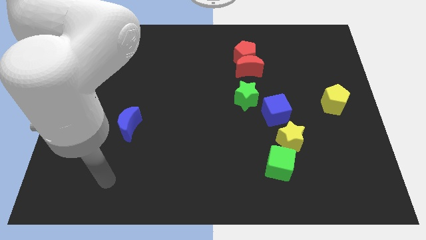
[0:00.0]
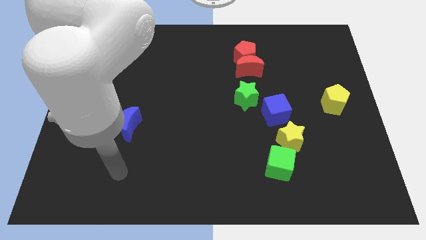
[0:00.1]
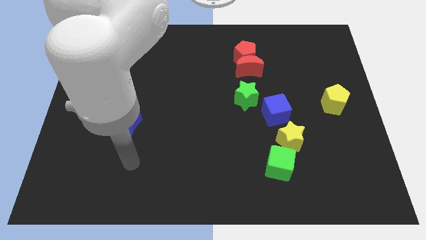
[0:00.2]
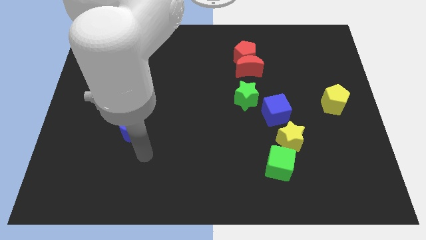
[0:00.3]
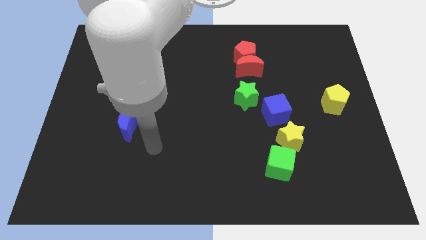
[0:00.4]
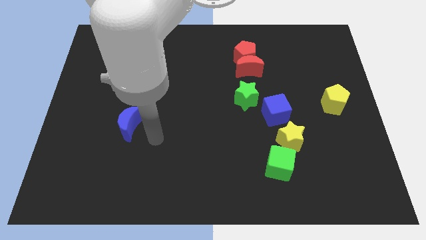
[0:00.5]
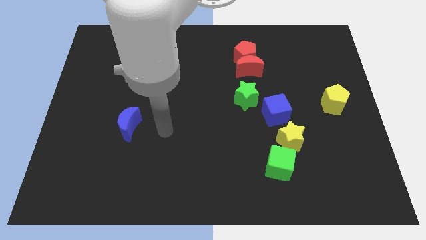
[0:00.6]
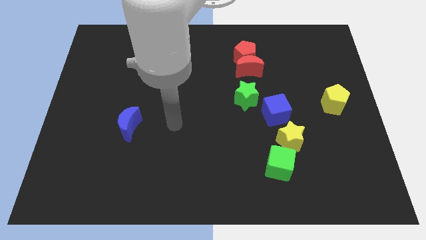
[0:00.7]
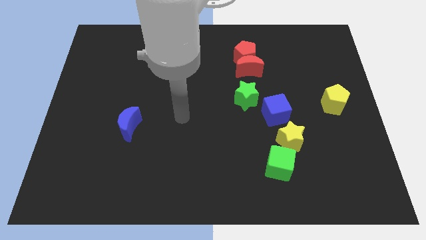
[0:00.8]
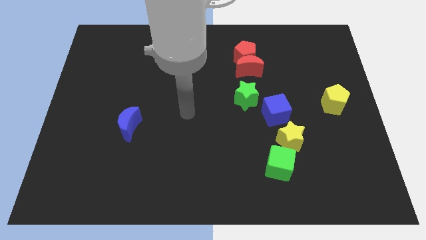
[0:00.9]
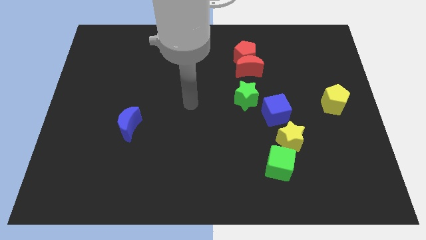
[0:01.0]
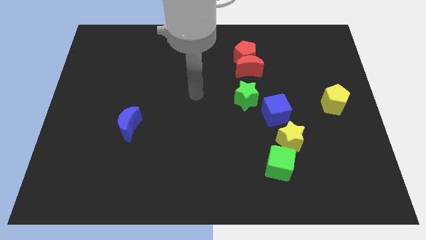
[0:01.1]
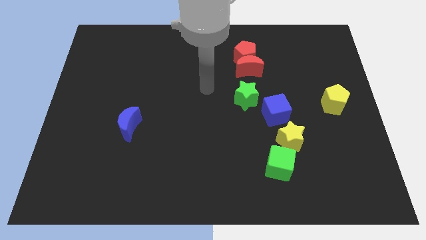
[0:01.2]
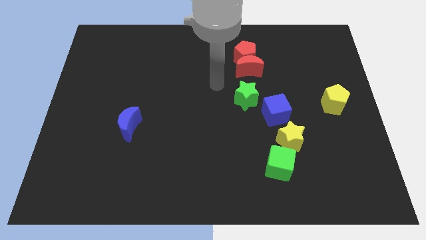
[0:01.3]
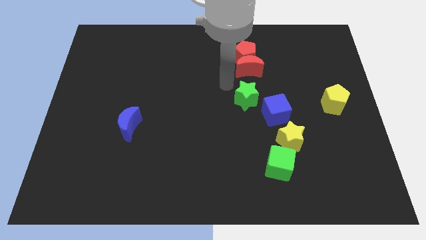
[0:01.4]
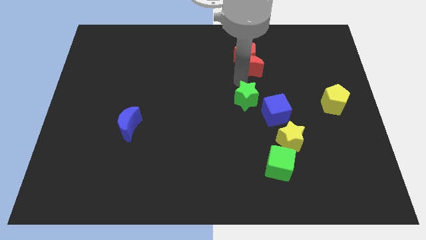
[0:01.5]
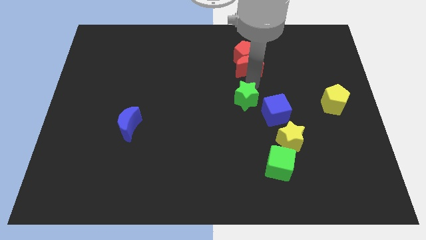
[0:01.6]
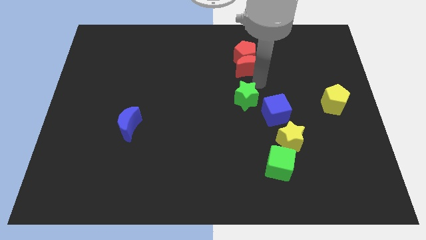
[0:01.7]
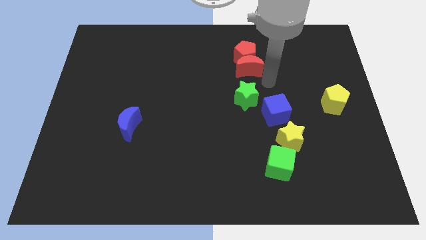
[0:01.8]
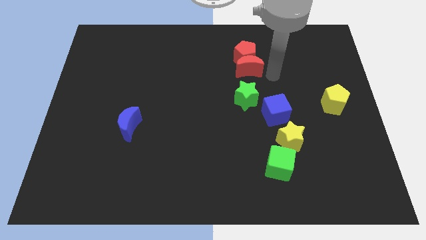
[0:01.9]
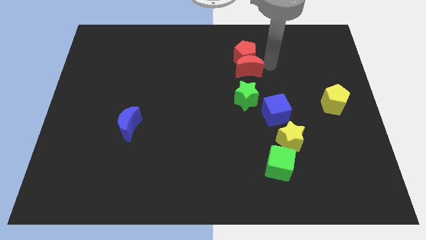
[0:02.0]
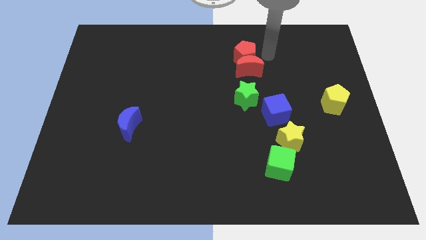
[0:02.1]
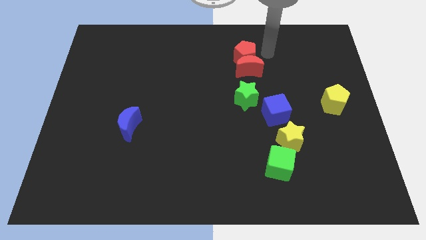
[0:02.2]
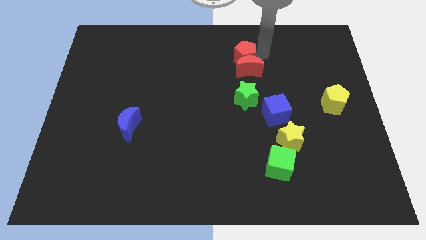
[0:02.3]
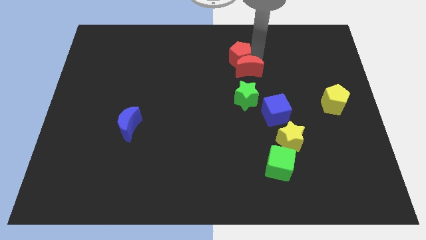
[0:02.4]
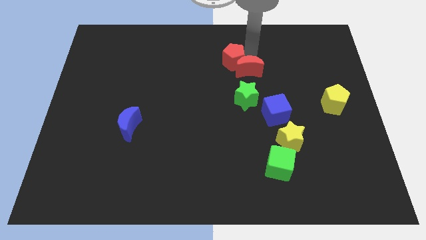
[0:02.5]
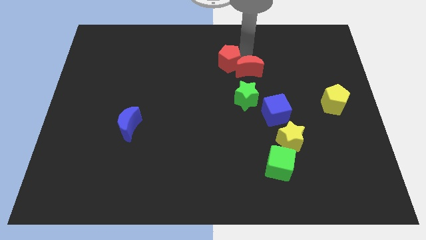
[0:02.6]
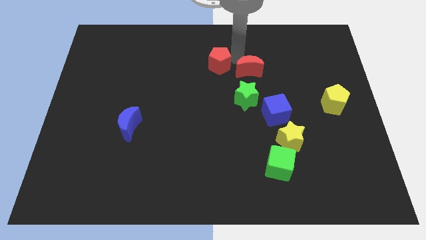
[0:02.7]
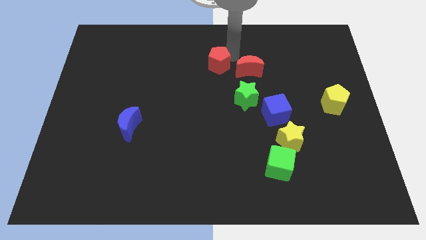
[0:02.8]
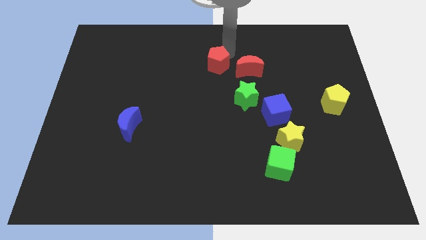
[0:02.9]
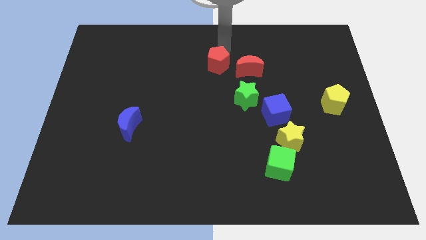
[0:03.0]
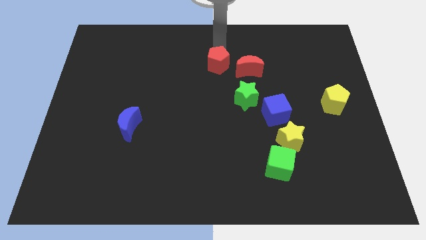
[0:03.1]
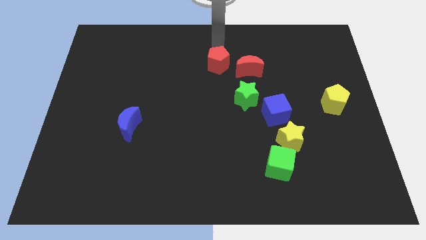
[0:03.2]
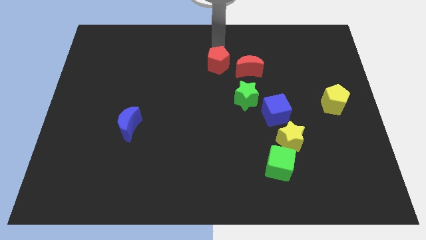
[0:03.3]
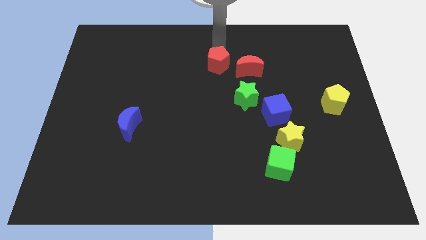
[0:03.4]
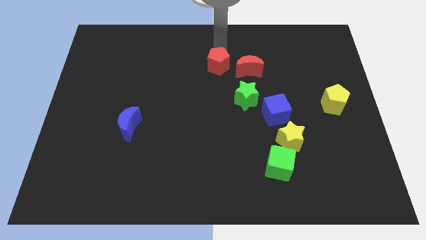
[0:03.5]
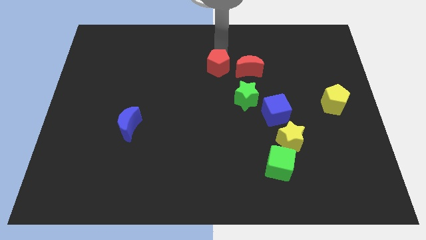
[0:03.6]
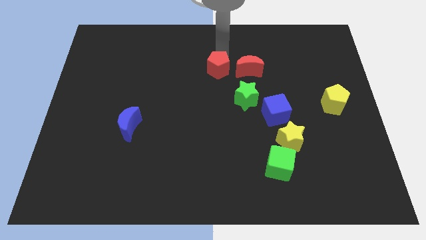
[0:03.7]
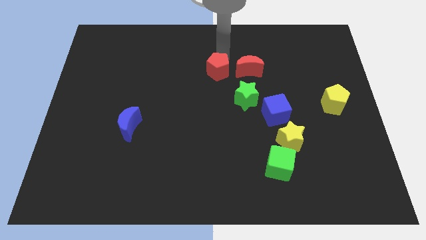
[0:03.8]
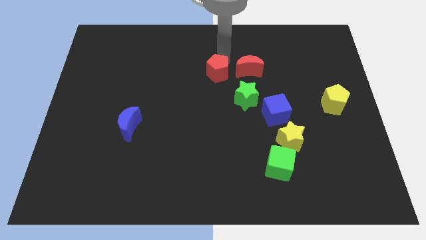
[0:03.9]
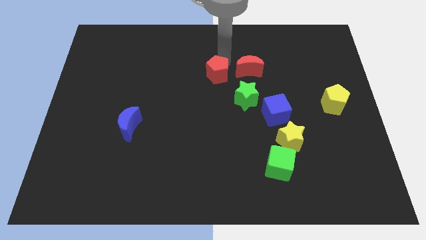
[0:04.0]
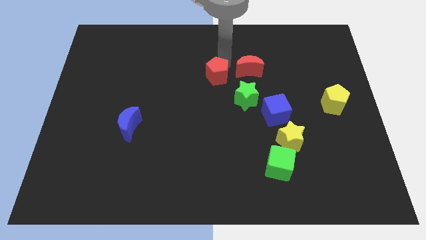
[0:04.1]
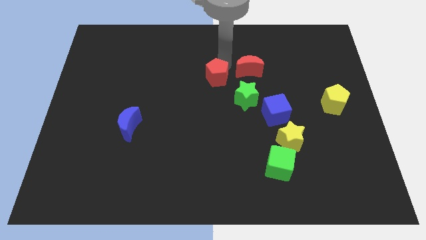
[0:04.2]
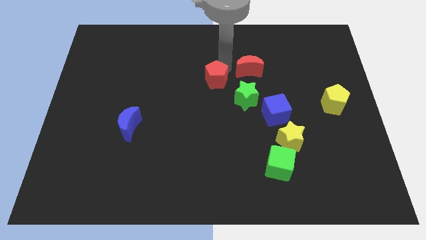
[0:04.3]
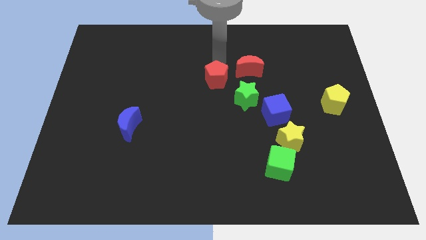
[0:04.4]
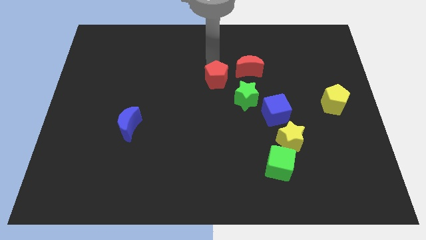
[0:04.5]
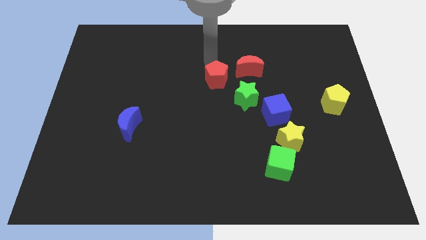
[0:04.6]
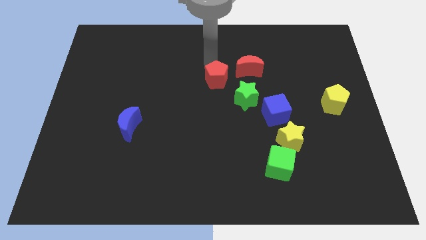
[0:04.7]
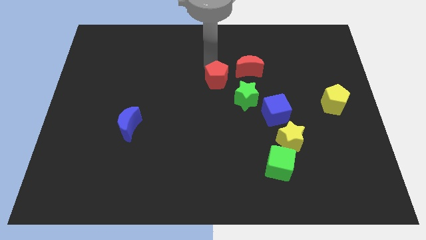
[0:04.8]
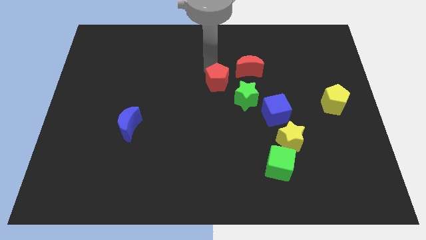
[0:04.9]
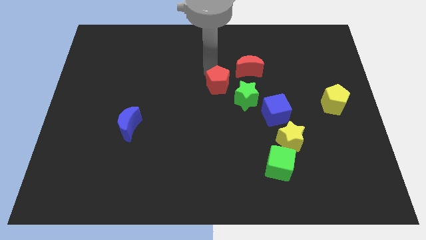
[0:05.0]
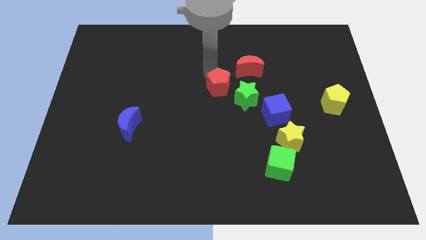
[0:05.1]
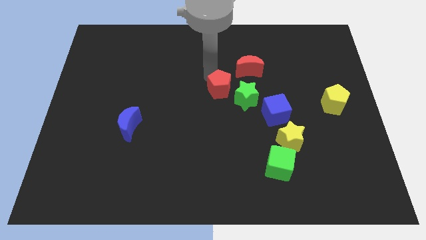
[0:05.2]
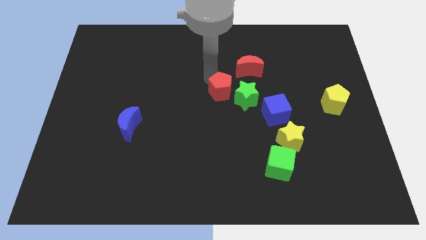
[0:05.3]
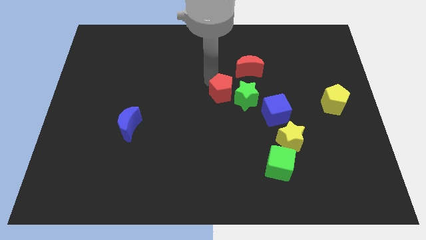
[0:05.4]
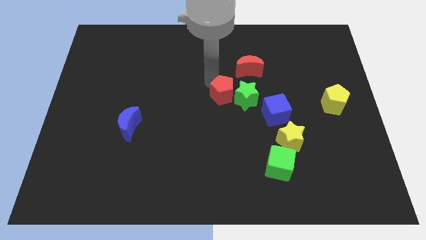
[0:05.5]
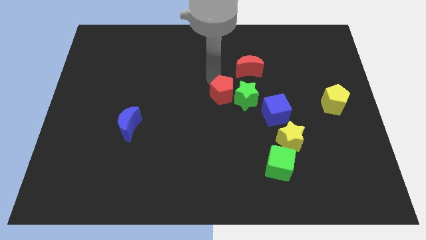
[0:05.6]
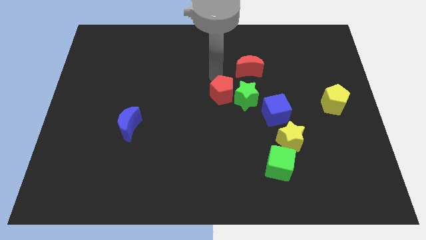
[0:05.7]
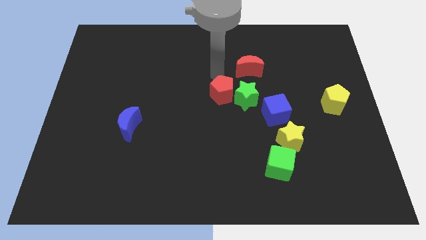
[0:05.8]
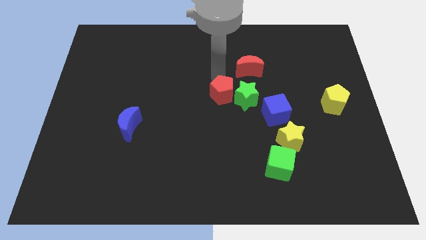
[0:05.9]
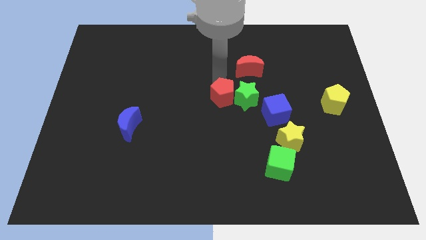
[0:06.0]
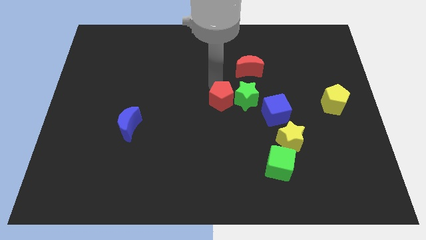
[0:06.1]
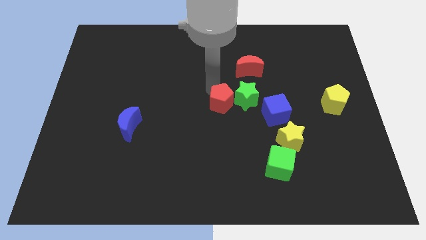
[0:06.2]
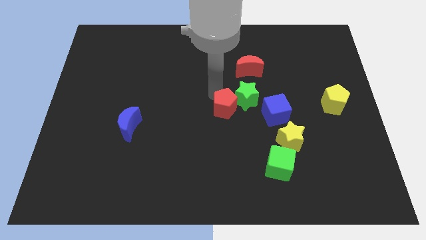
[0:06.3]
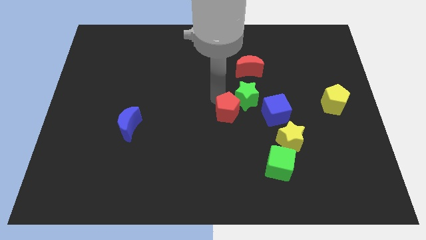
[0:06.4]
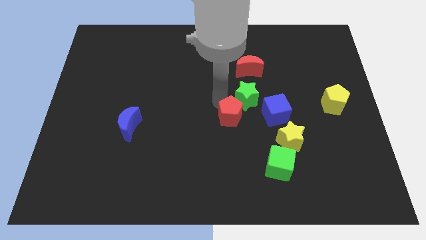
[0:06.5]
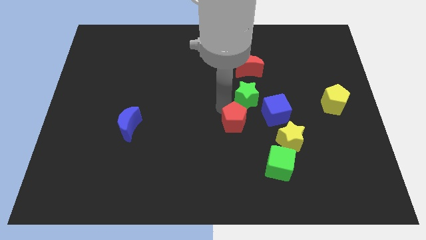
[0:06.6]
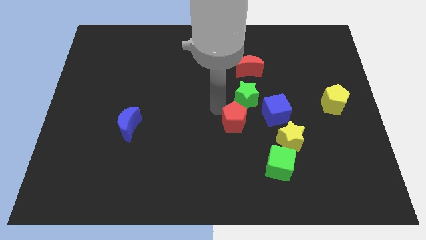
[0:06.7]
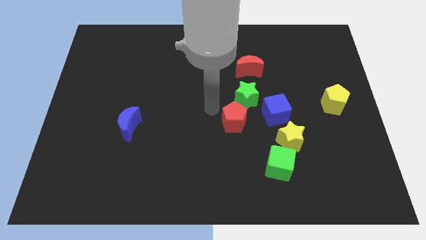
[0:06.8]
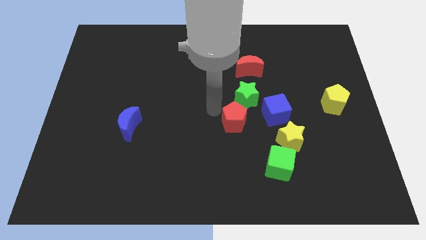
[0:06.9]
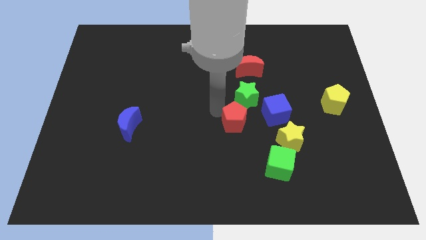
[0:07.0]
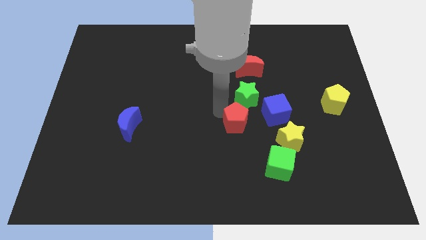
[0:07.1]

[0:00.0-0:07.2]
put the red pentagon to the bottom left side of the blue cube
